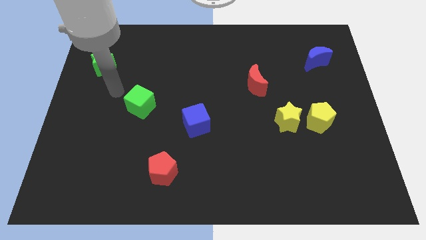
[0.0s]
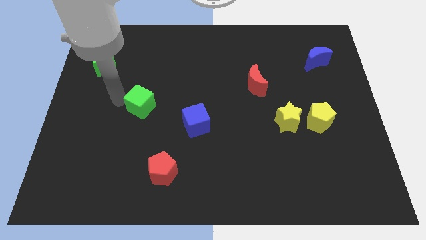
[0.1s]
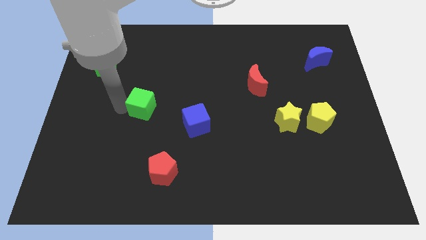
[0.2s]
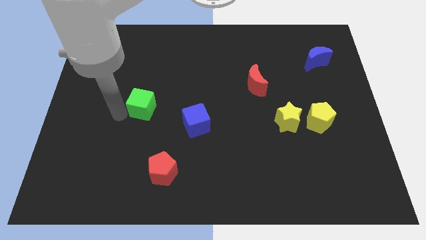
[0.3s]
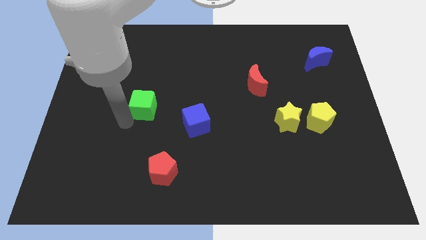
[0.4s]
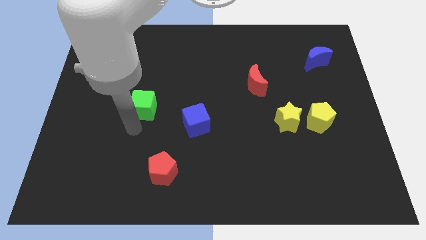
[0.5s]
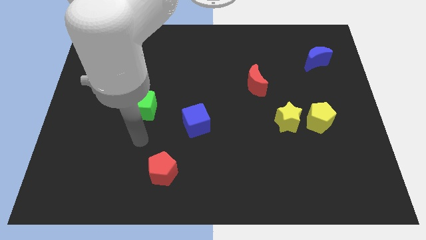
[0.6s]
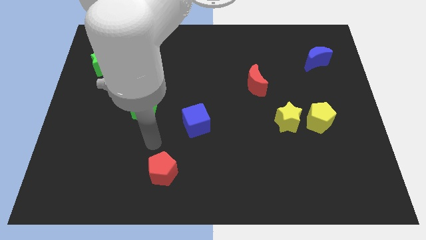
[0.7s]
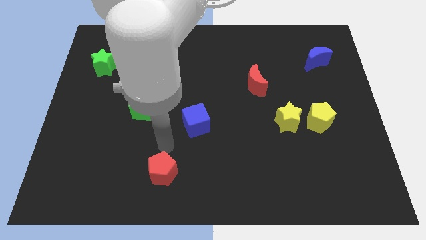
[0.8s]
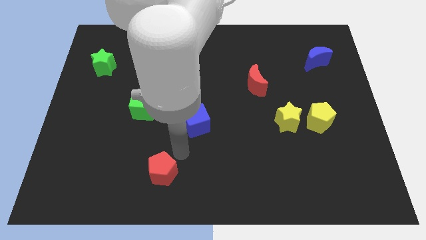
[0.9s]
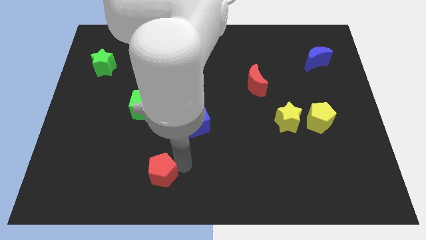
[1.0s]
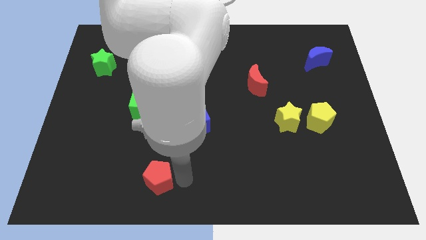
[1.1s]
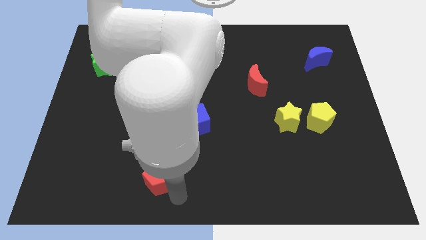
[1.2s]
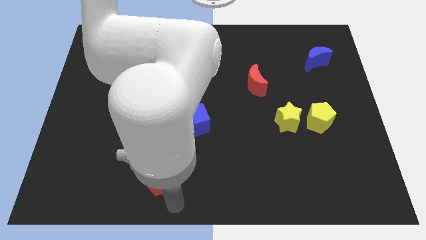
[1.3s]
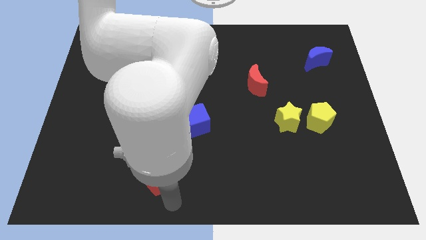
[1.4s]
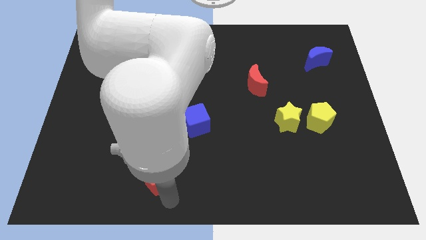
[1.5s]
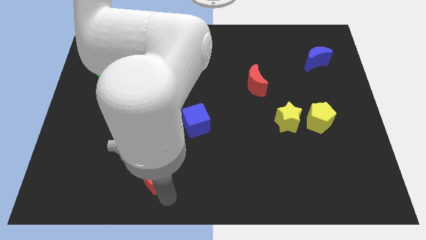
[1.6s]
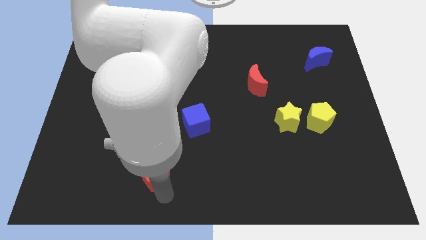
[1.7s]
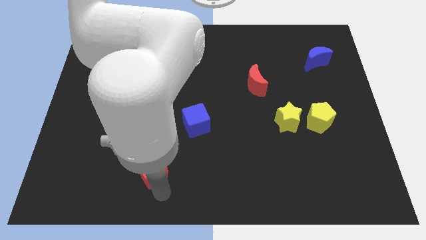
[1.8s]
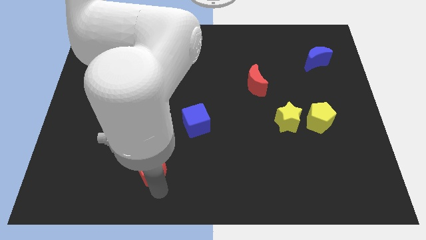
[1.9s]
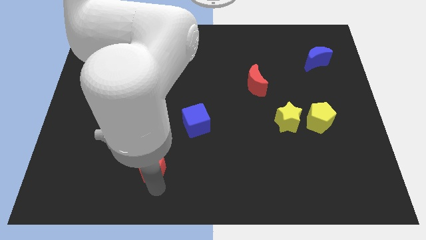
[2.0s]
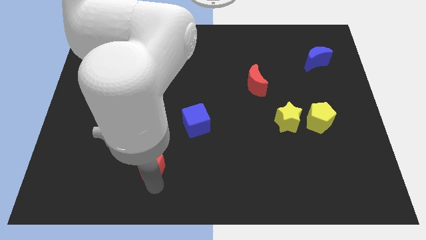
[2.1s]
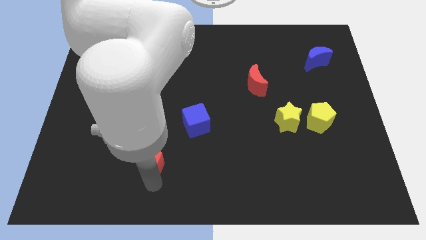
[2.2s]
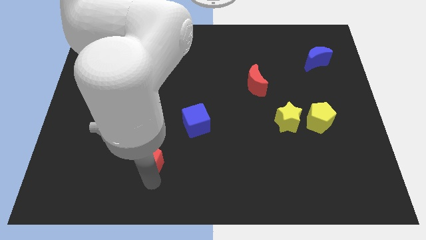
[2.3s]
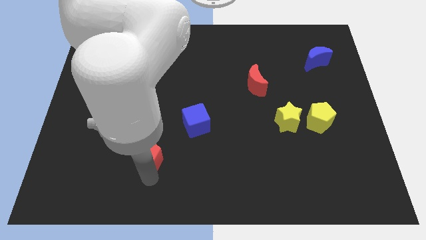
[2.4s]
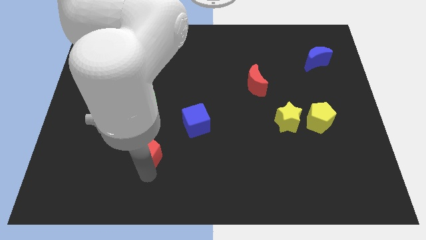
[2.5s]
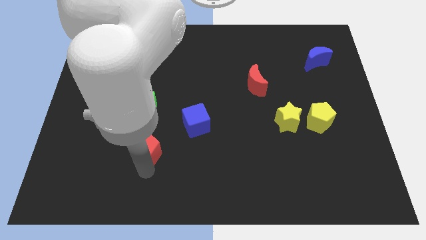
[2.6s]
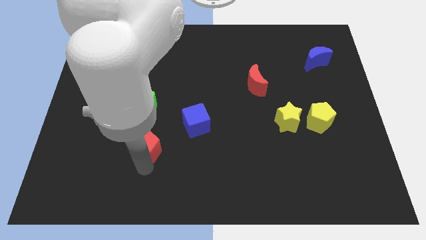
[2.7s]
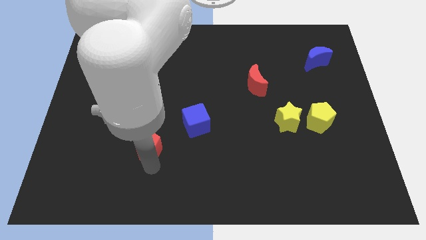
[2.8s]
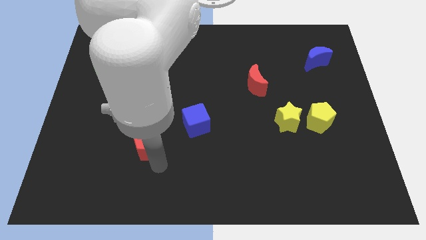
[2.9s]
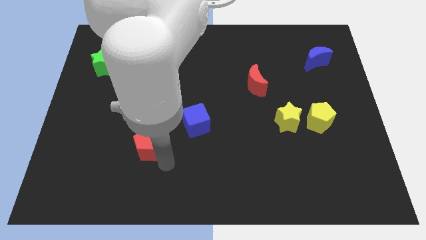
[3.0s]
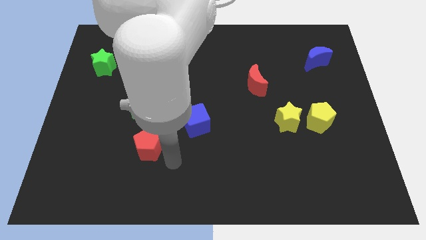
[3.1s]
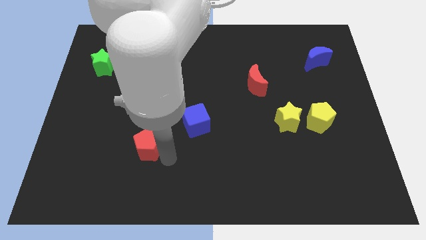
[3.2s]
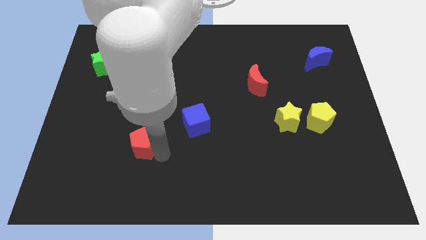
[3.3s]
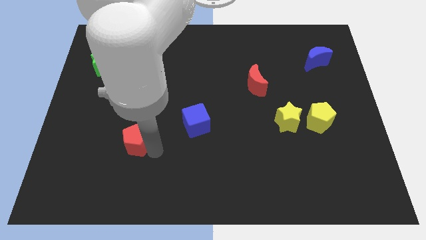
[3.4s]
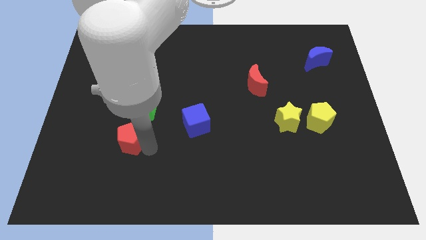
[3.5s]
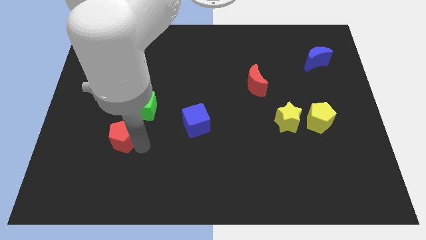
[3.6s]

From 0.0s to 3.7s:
slide the red pentagon to the bottom left side of the green cube

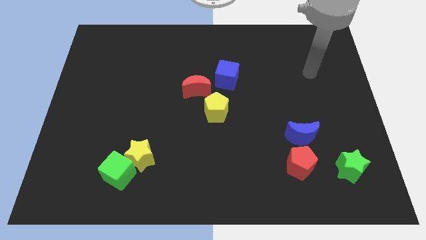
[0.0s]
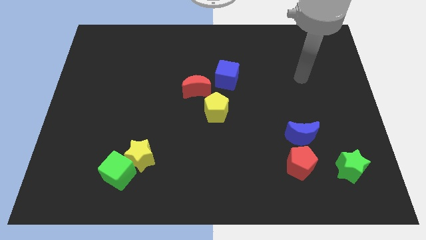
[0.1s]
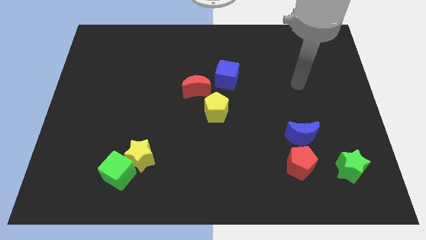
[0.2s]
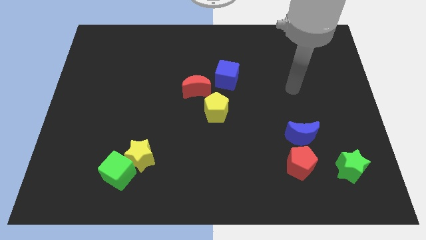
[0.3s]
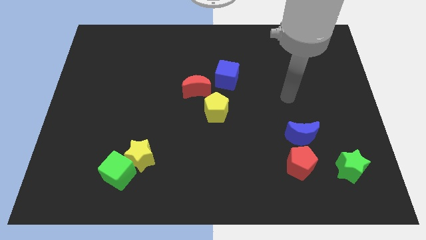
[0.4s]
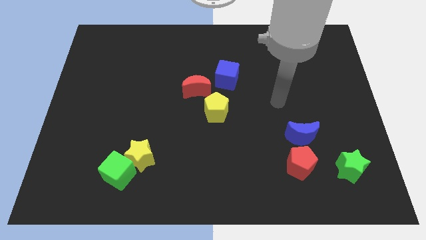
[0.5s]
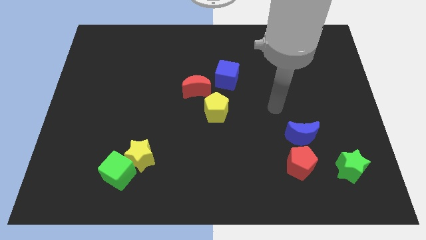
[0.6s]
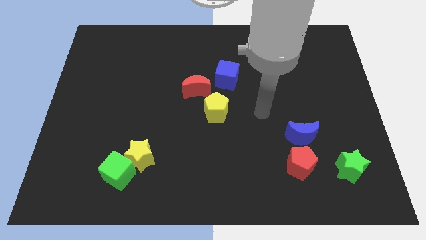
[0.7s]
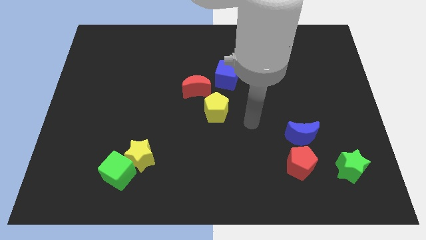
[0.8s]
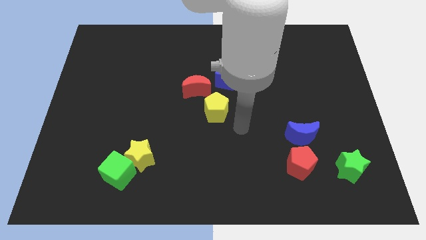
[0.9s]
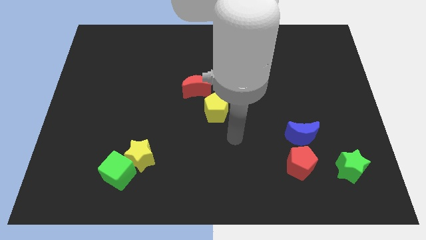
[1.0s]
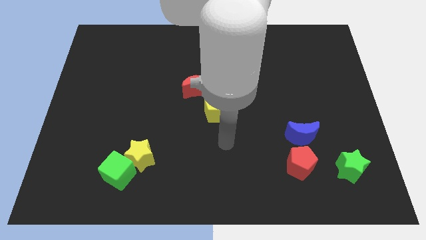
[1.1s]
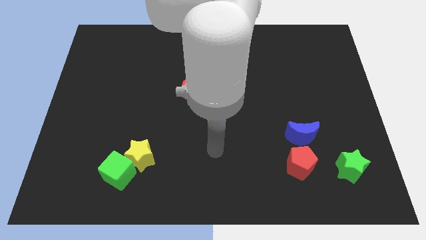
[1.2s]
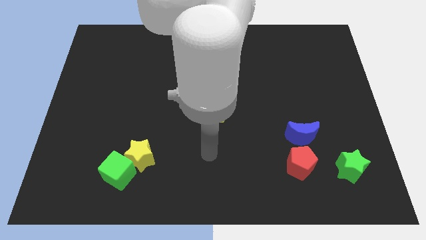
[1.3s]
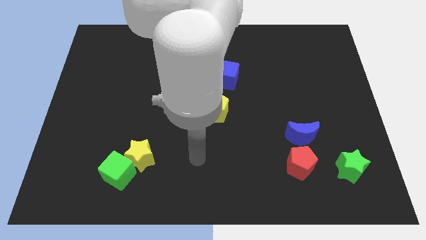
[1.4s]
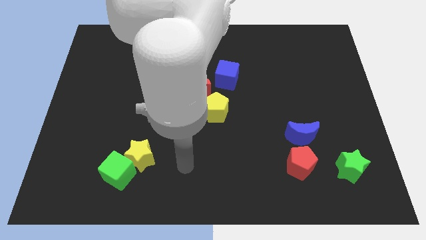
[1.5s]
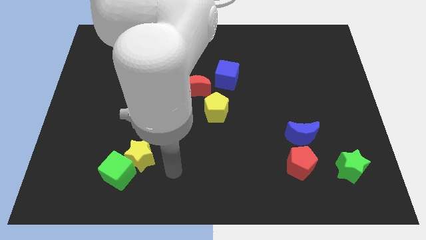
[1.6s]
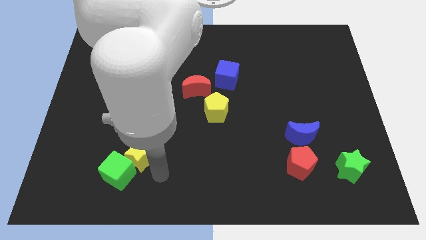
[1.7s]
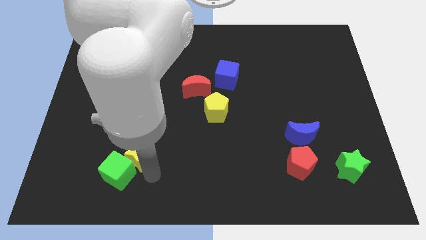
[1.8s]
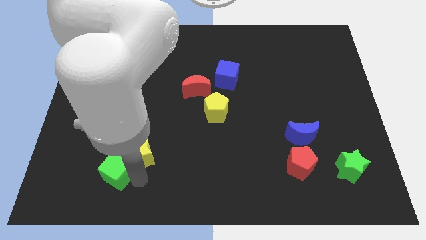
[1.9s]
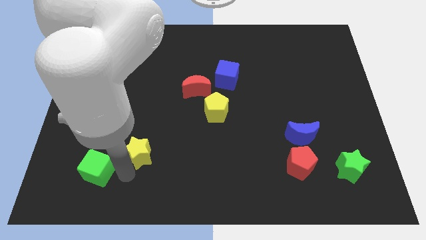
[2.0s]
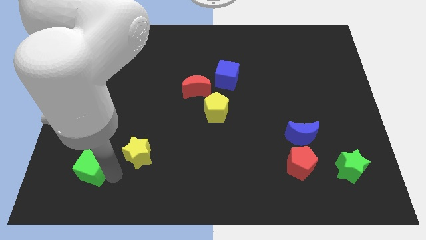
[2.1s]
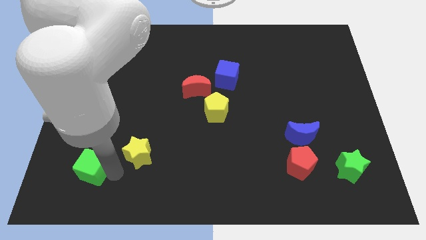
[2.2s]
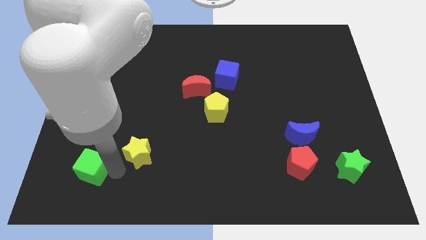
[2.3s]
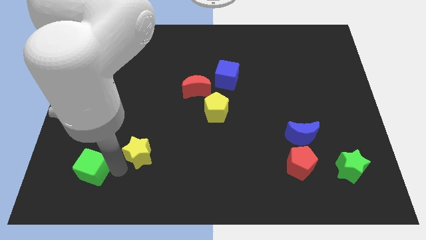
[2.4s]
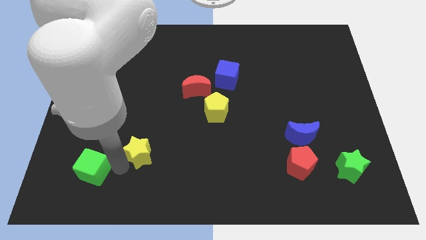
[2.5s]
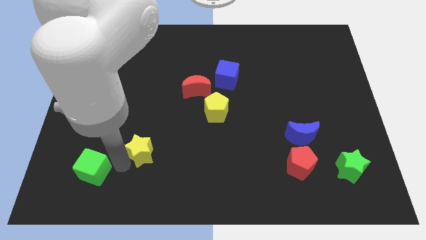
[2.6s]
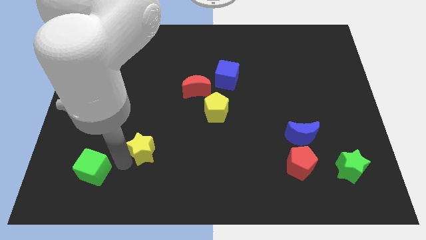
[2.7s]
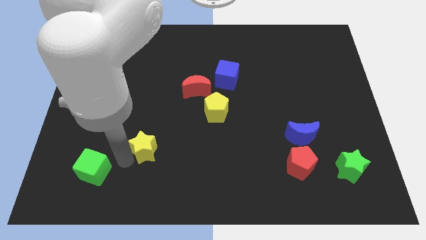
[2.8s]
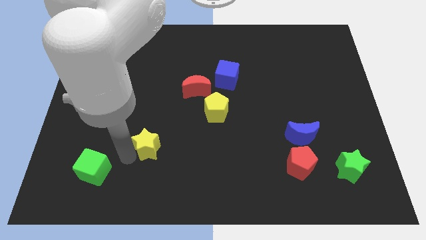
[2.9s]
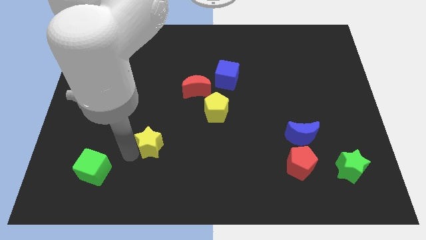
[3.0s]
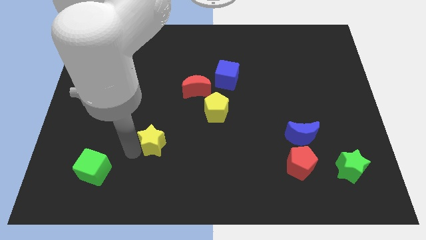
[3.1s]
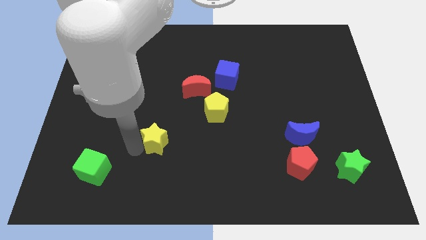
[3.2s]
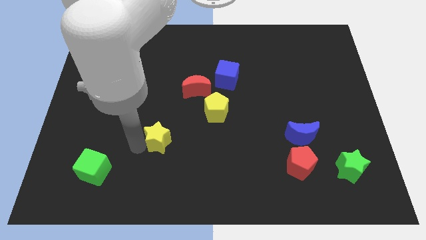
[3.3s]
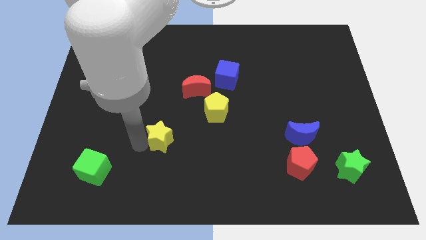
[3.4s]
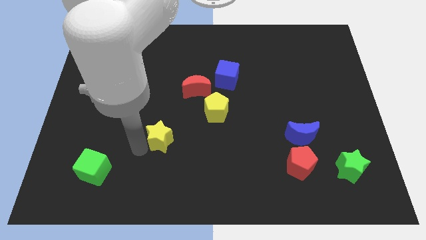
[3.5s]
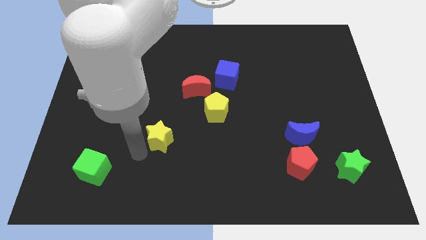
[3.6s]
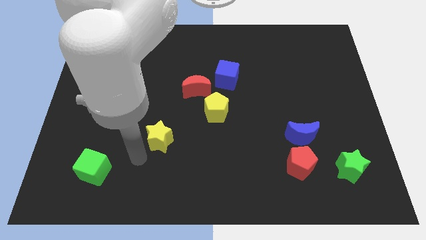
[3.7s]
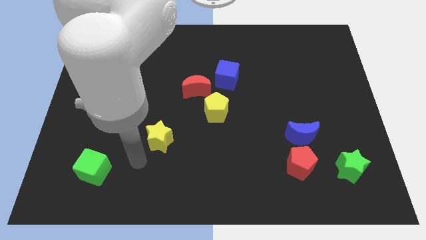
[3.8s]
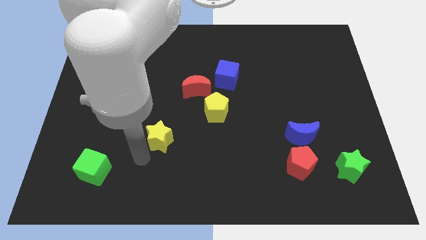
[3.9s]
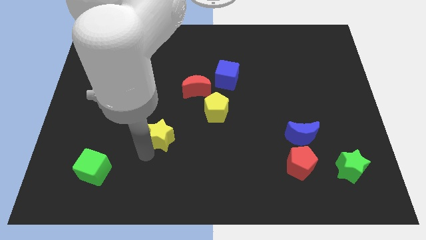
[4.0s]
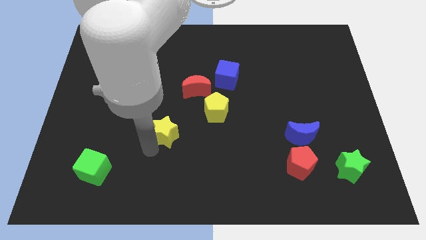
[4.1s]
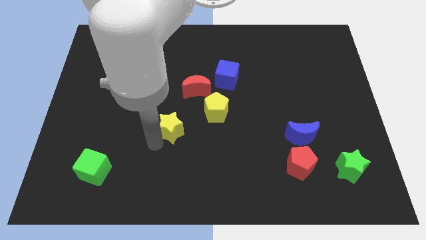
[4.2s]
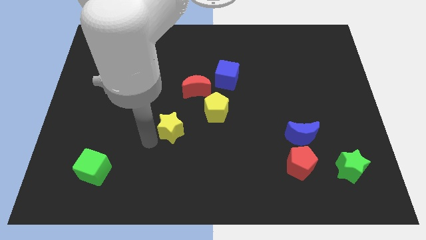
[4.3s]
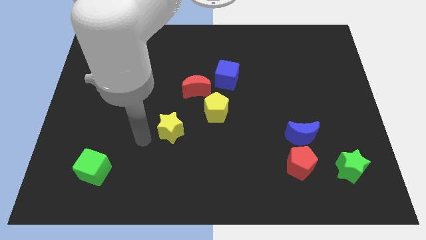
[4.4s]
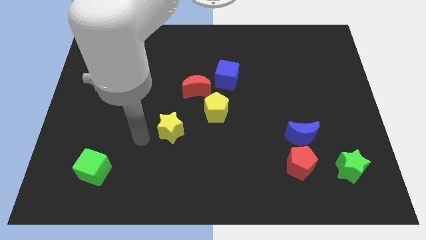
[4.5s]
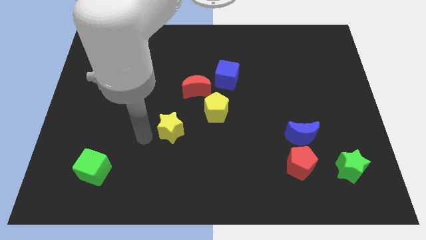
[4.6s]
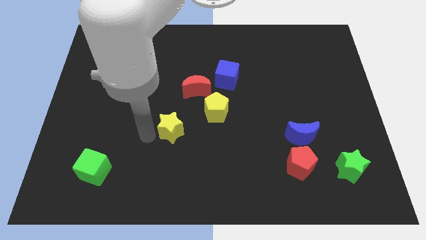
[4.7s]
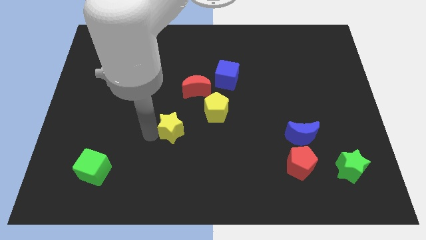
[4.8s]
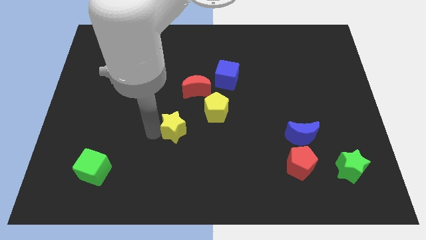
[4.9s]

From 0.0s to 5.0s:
slide the yellow star to the bottom side of the red moon
